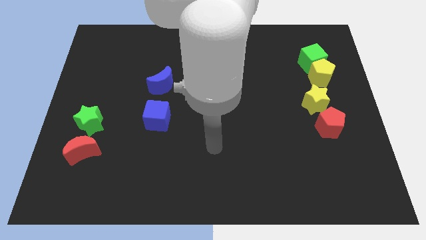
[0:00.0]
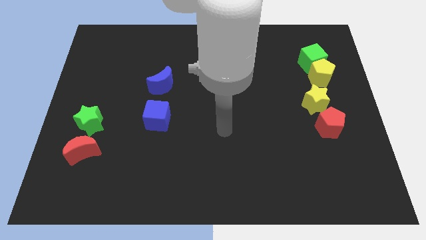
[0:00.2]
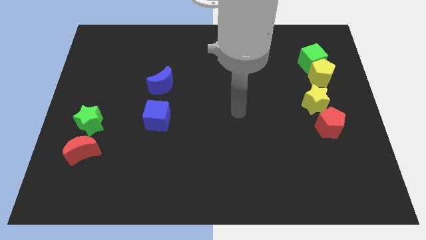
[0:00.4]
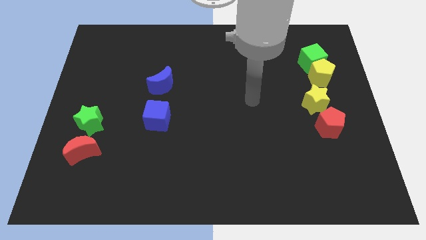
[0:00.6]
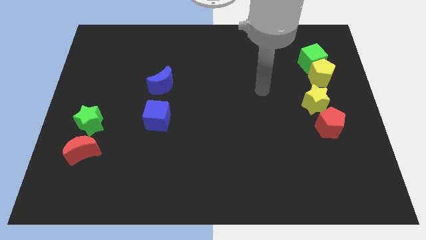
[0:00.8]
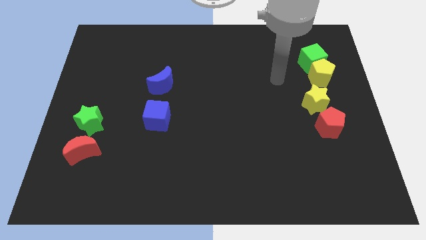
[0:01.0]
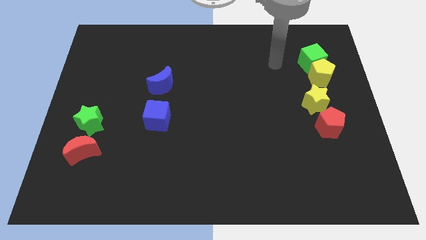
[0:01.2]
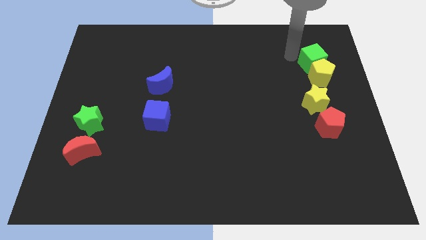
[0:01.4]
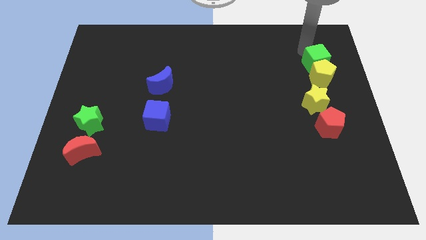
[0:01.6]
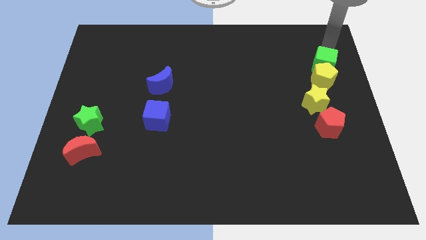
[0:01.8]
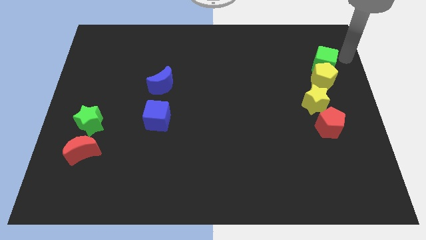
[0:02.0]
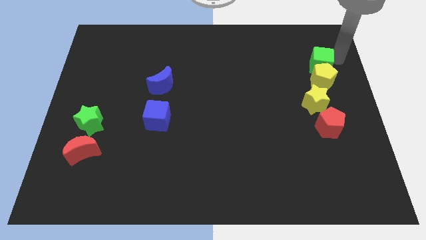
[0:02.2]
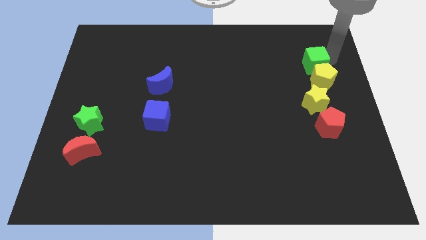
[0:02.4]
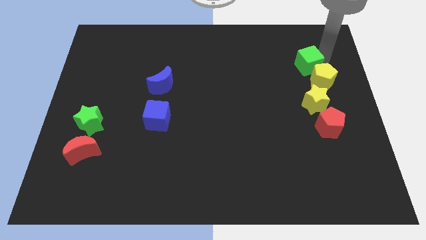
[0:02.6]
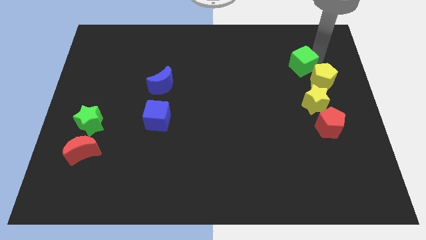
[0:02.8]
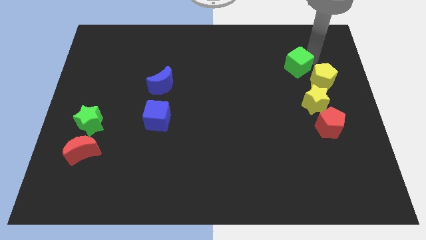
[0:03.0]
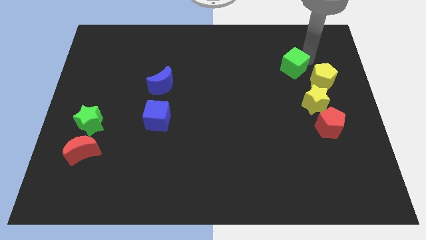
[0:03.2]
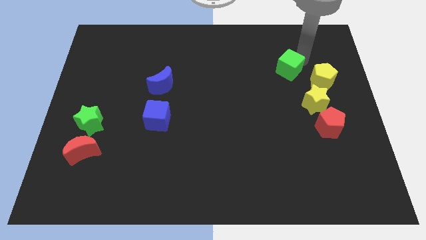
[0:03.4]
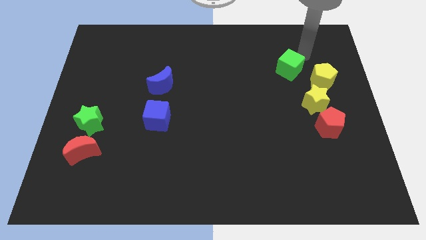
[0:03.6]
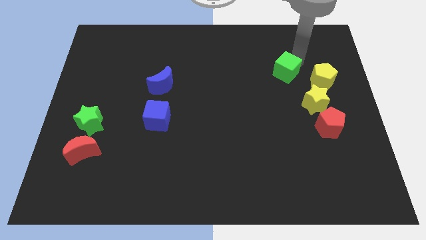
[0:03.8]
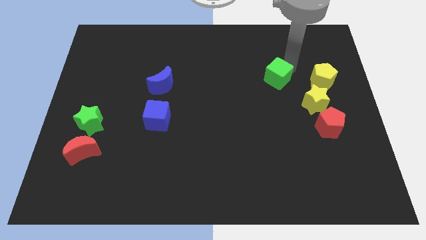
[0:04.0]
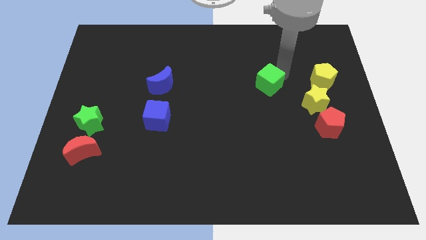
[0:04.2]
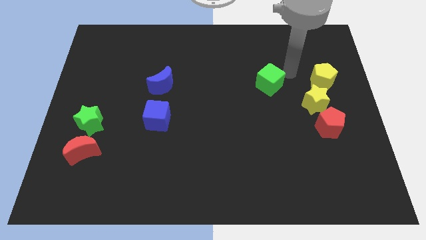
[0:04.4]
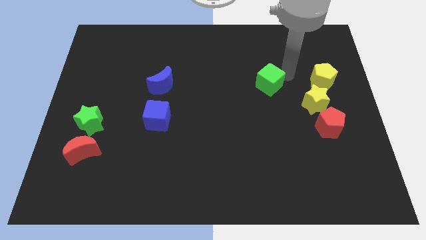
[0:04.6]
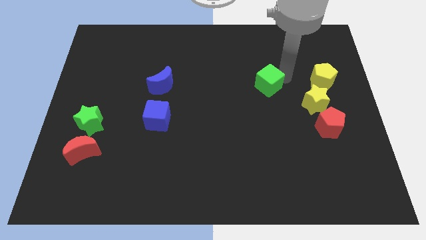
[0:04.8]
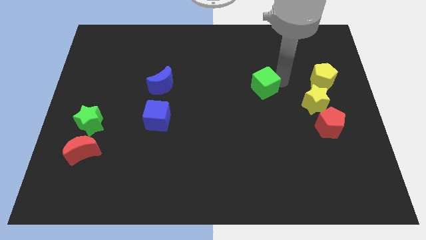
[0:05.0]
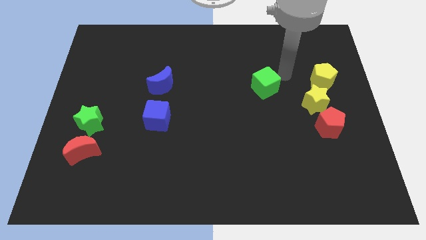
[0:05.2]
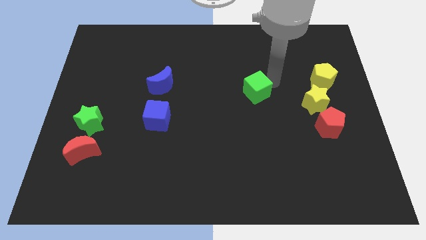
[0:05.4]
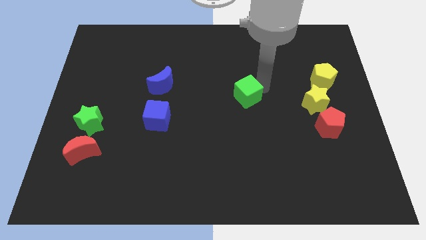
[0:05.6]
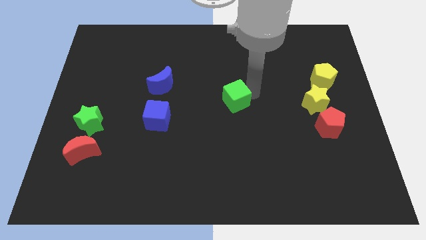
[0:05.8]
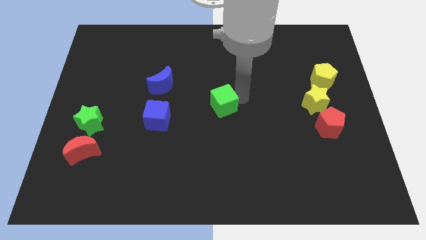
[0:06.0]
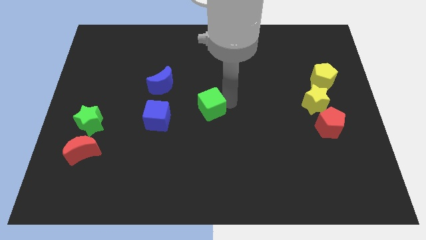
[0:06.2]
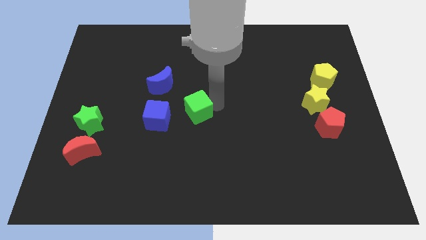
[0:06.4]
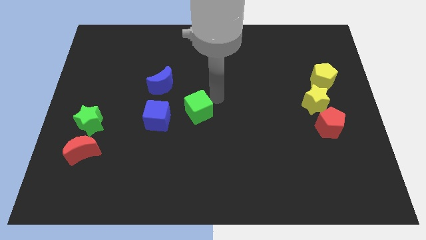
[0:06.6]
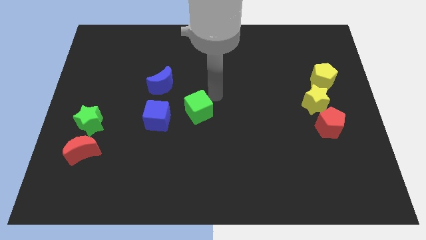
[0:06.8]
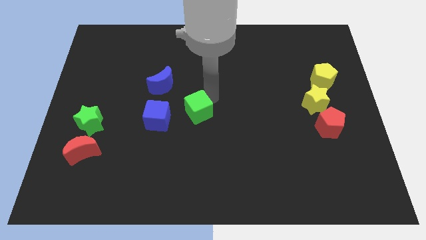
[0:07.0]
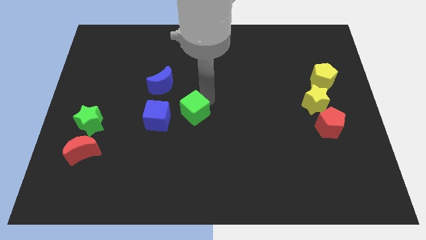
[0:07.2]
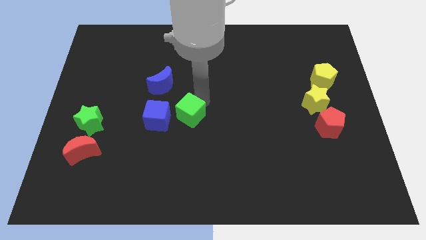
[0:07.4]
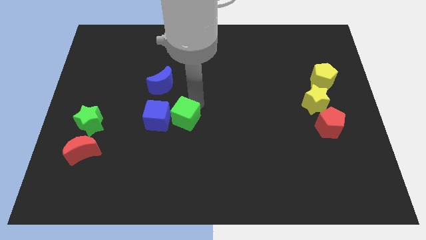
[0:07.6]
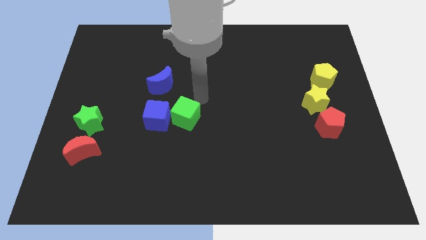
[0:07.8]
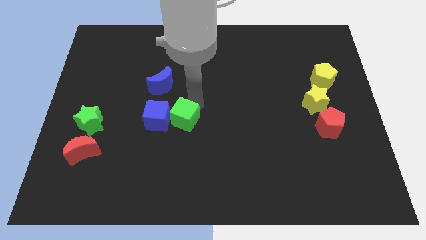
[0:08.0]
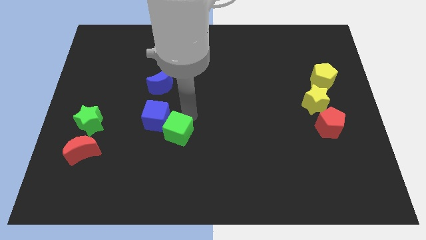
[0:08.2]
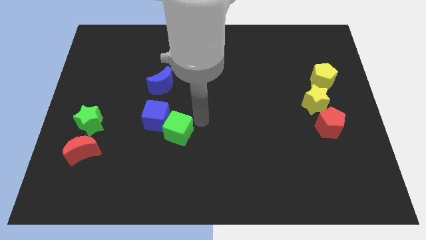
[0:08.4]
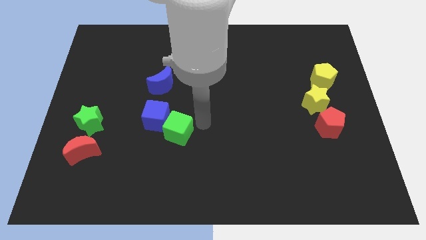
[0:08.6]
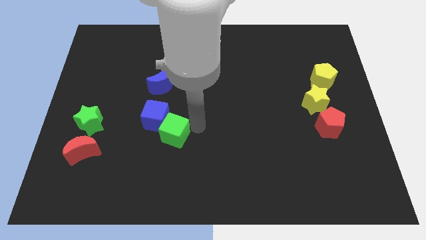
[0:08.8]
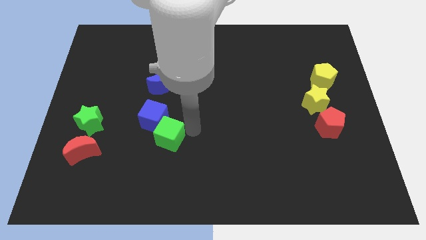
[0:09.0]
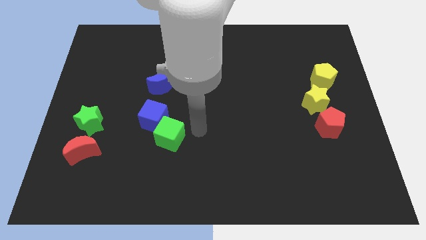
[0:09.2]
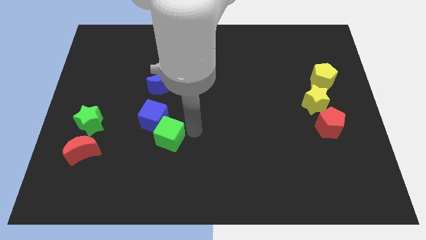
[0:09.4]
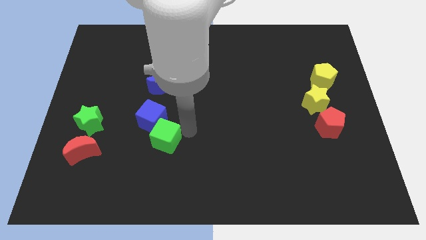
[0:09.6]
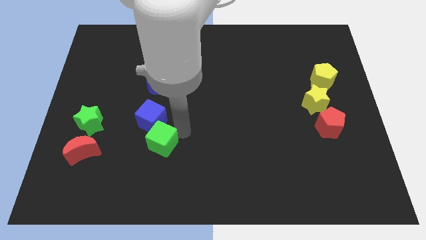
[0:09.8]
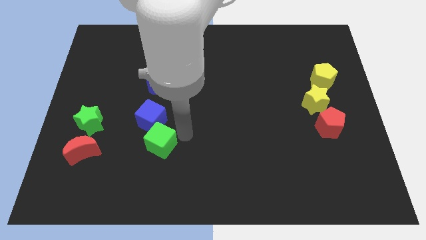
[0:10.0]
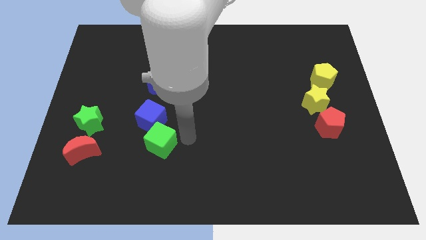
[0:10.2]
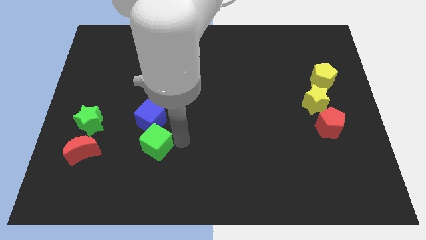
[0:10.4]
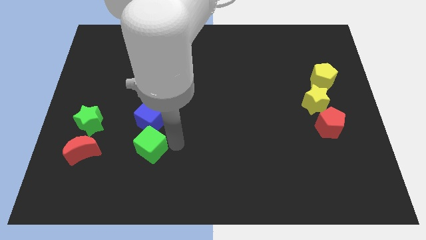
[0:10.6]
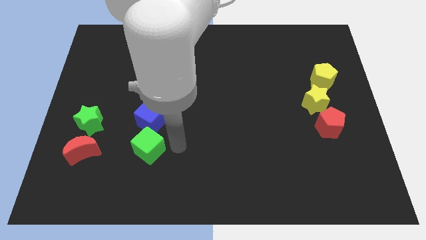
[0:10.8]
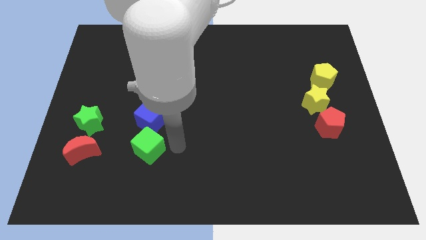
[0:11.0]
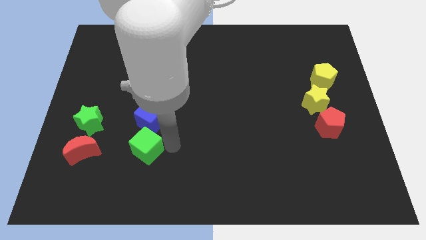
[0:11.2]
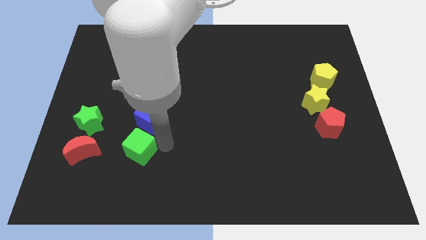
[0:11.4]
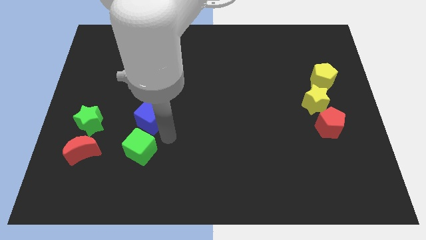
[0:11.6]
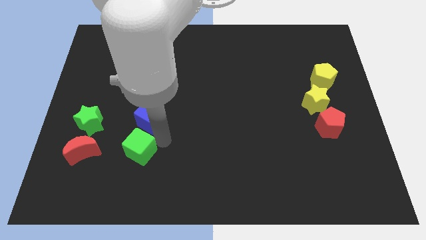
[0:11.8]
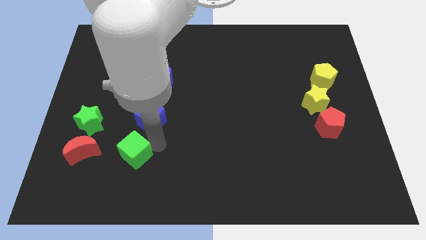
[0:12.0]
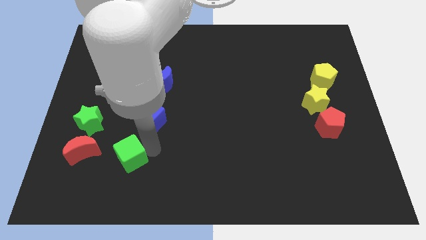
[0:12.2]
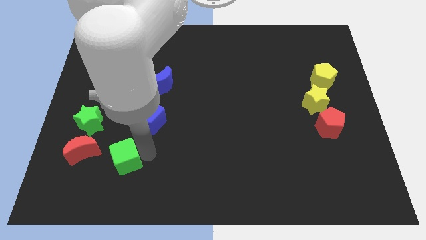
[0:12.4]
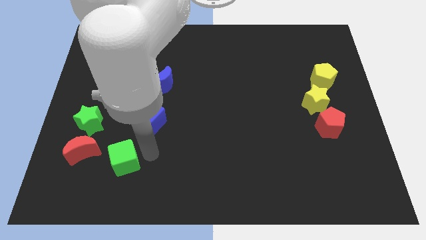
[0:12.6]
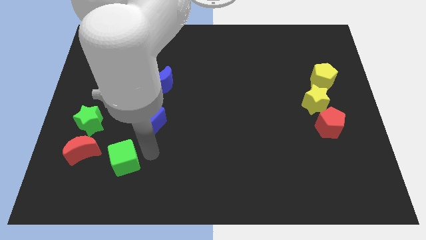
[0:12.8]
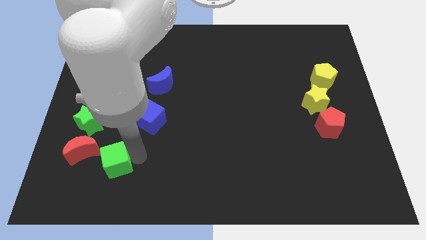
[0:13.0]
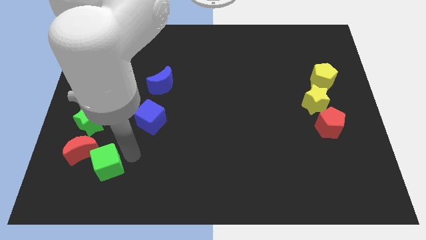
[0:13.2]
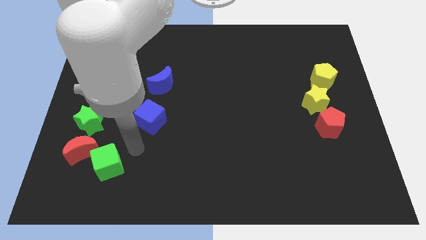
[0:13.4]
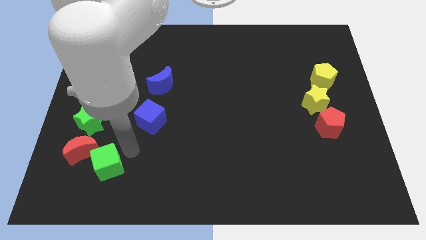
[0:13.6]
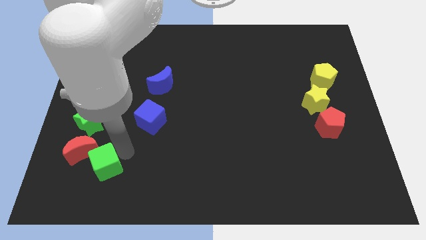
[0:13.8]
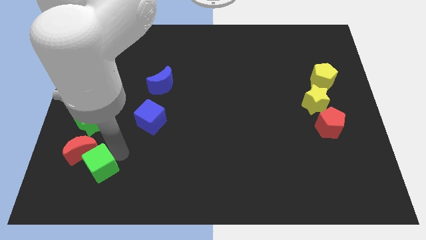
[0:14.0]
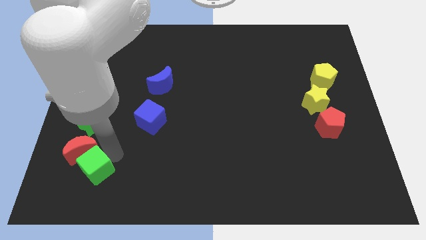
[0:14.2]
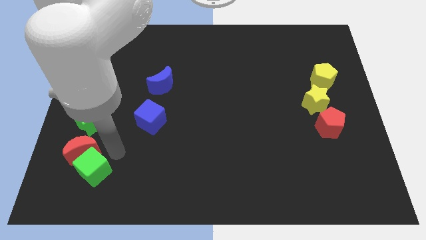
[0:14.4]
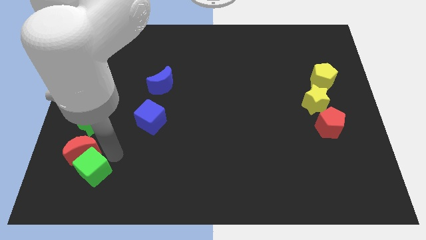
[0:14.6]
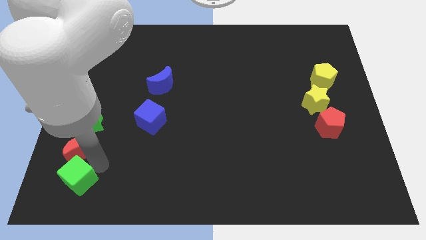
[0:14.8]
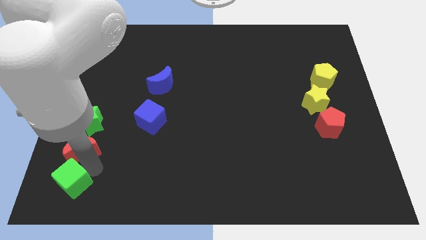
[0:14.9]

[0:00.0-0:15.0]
slide the green cube to the bottom left of the board
